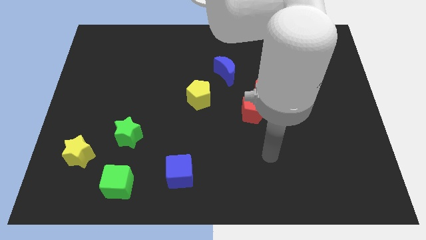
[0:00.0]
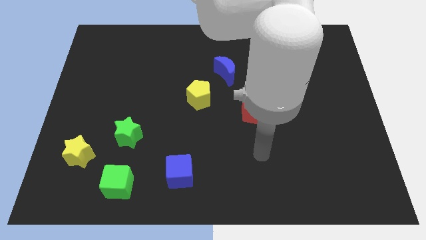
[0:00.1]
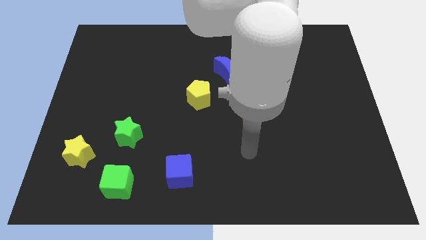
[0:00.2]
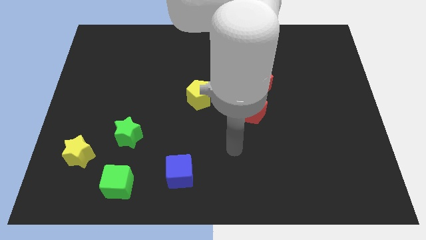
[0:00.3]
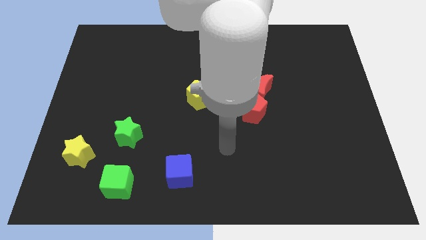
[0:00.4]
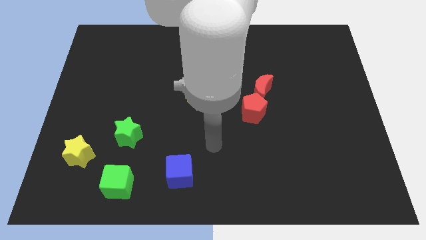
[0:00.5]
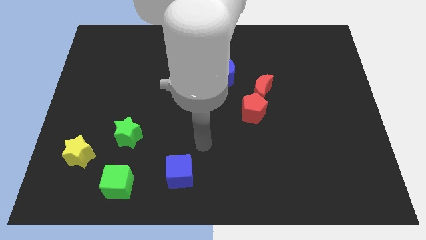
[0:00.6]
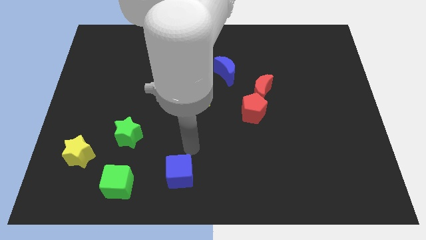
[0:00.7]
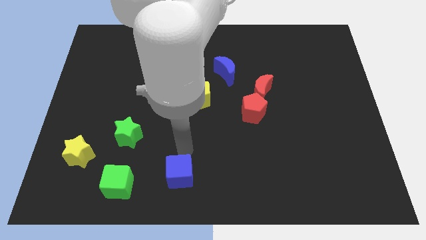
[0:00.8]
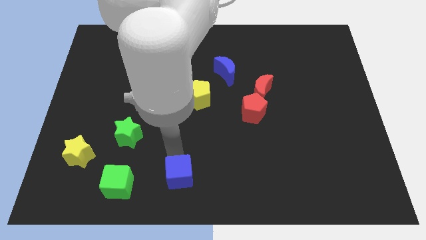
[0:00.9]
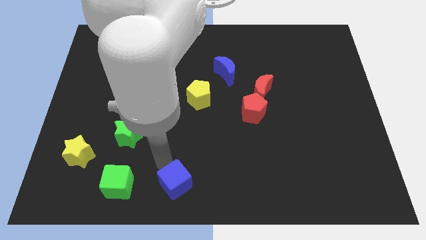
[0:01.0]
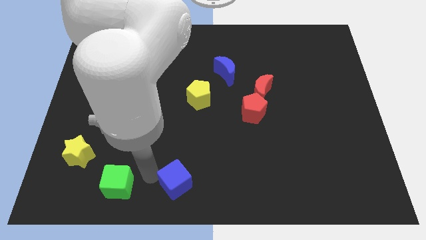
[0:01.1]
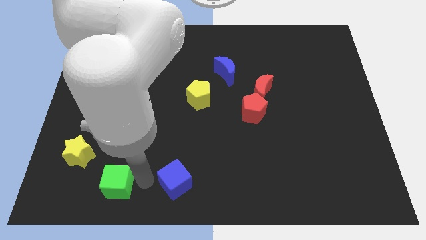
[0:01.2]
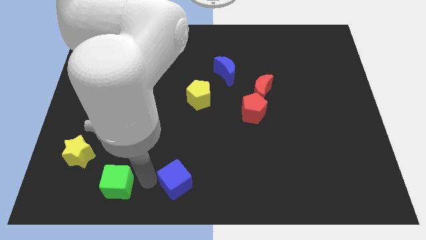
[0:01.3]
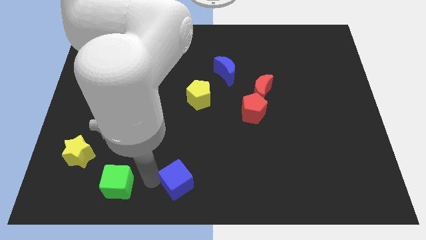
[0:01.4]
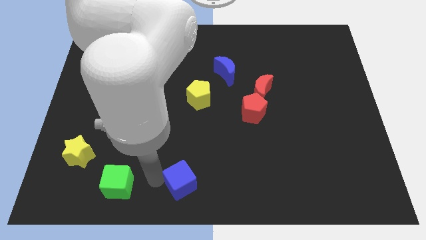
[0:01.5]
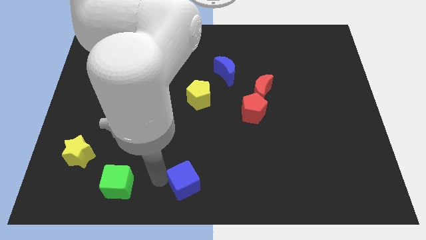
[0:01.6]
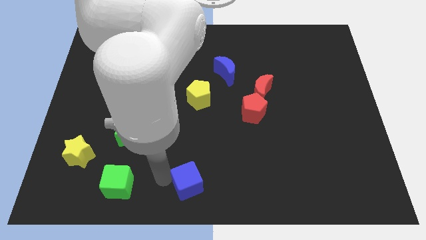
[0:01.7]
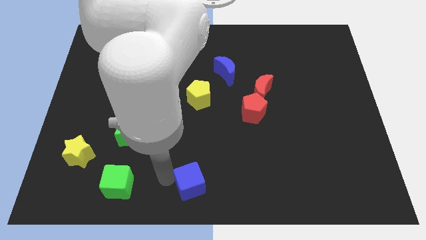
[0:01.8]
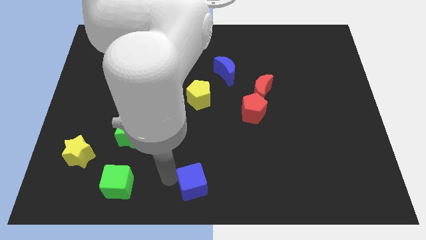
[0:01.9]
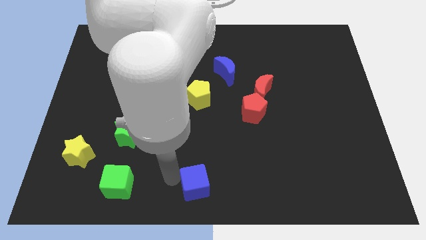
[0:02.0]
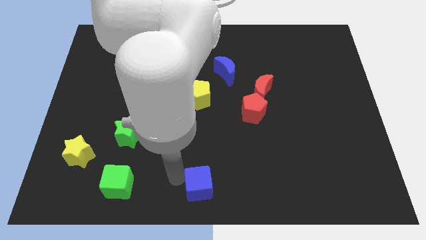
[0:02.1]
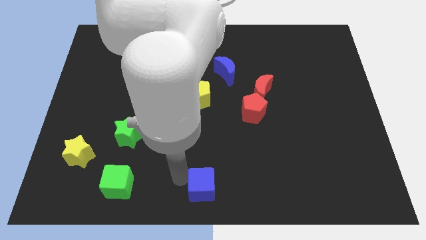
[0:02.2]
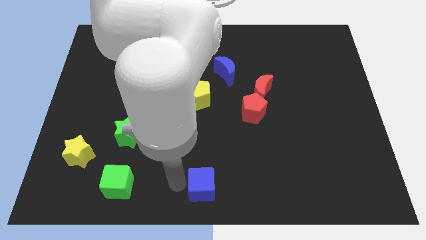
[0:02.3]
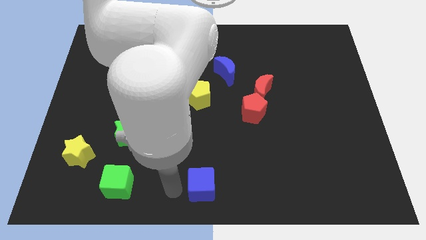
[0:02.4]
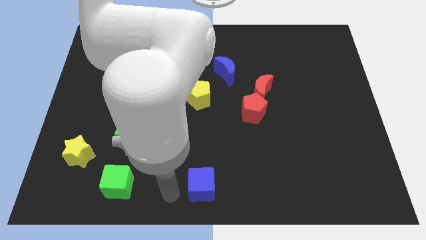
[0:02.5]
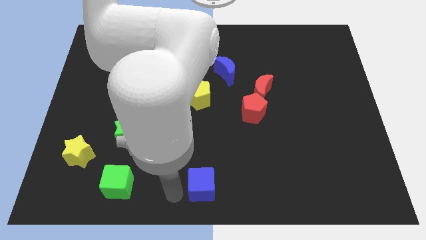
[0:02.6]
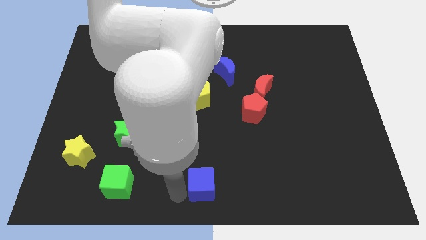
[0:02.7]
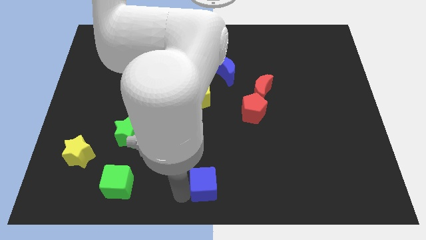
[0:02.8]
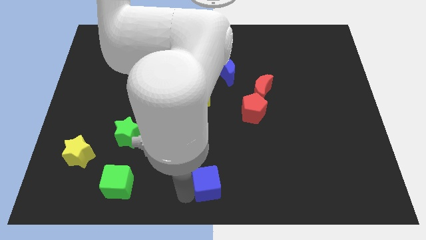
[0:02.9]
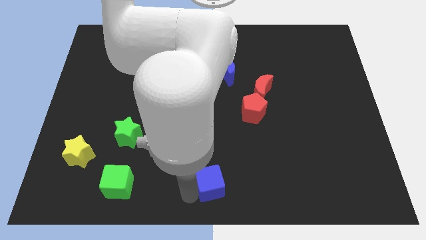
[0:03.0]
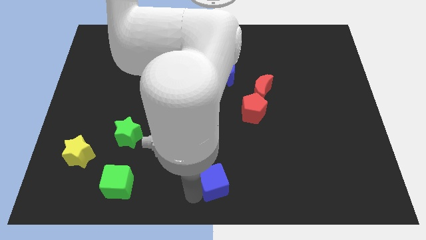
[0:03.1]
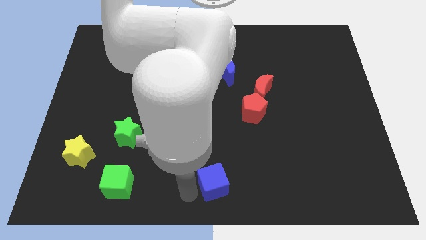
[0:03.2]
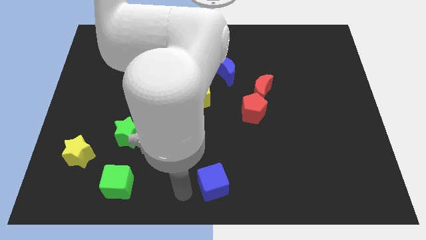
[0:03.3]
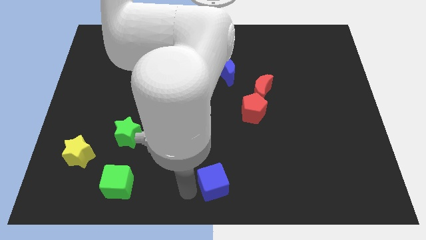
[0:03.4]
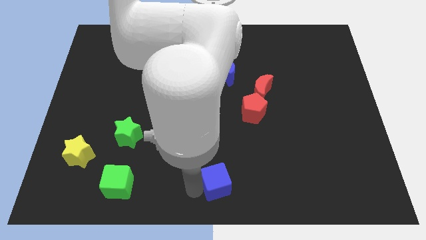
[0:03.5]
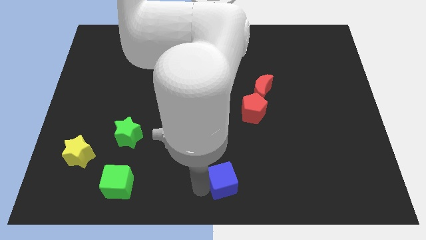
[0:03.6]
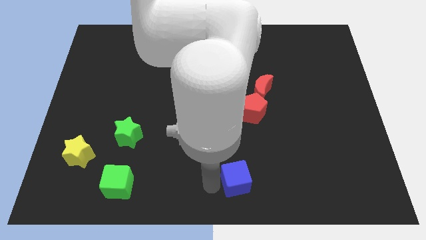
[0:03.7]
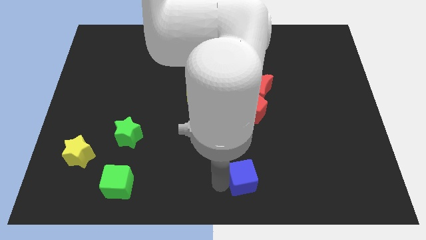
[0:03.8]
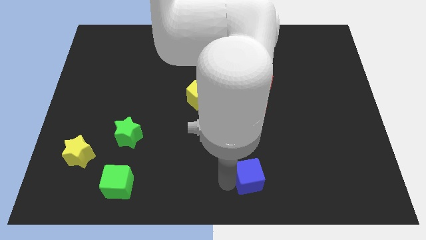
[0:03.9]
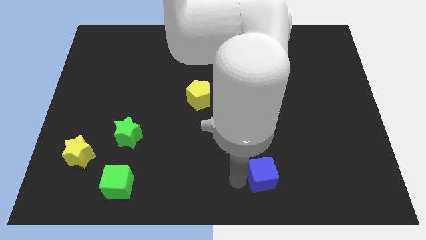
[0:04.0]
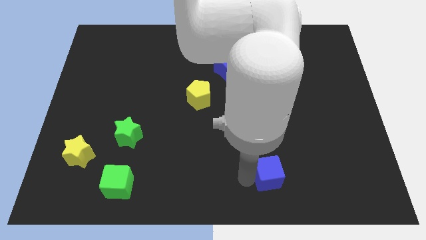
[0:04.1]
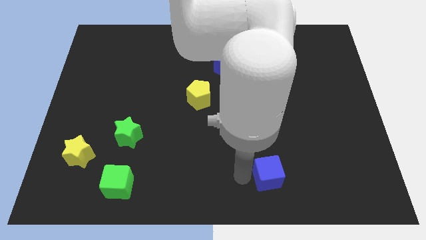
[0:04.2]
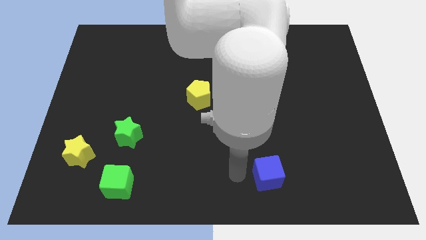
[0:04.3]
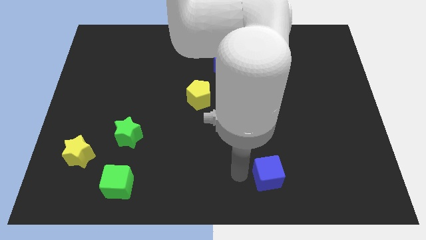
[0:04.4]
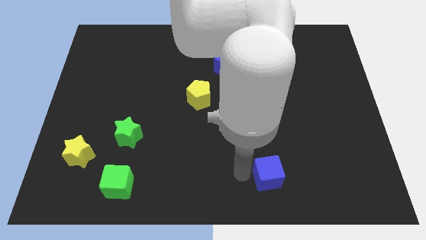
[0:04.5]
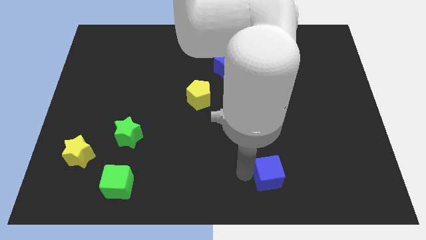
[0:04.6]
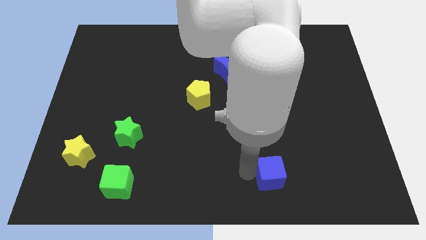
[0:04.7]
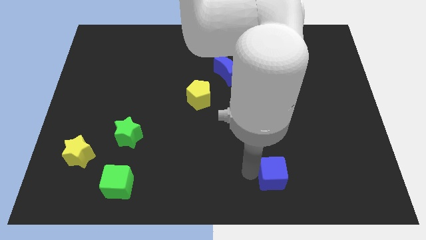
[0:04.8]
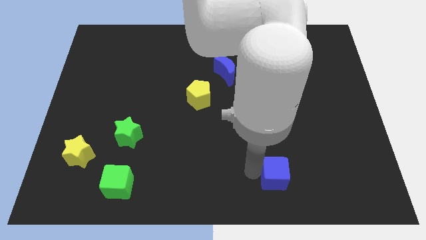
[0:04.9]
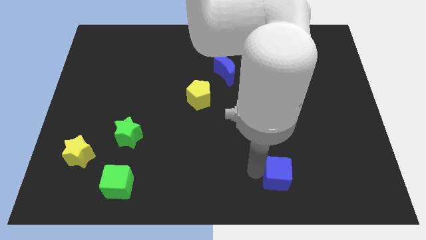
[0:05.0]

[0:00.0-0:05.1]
slide the blue cube right

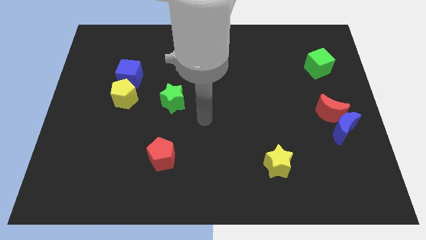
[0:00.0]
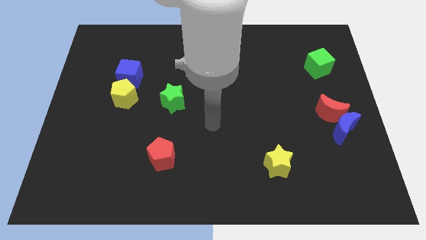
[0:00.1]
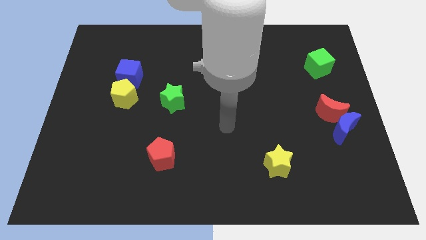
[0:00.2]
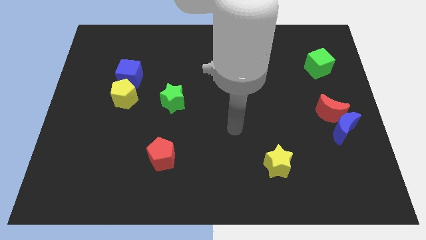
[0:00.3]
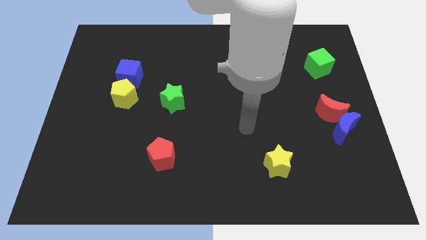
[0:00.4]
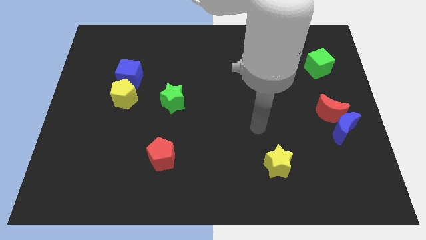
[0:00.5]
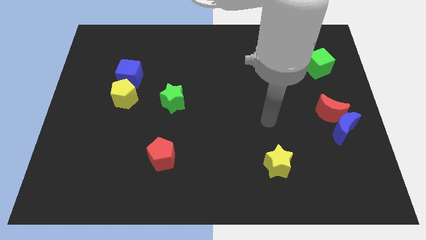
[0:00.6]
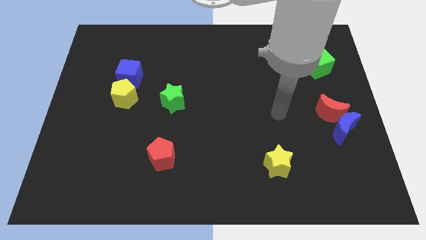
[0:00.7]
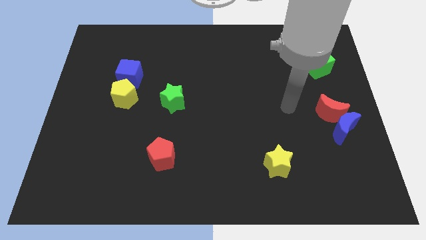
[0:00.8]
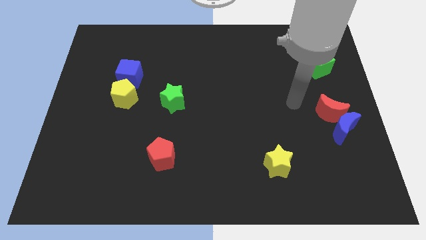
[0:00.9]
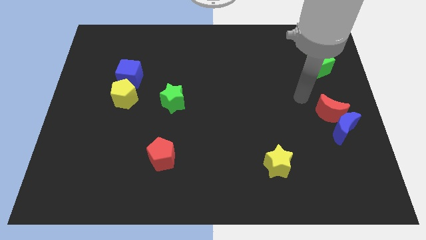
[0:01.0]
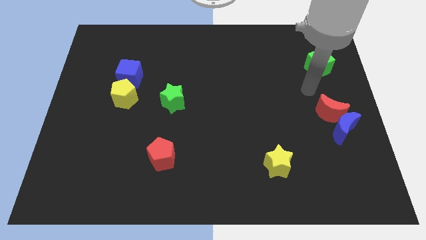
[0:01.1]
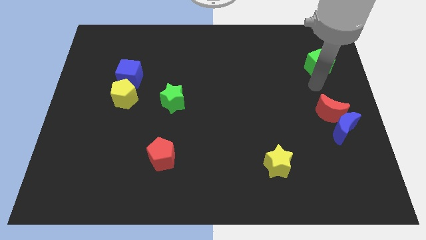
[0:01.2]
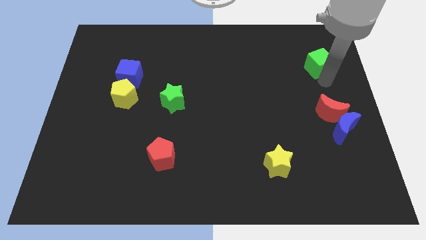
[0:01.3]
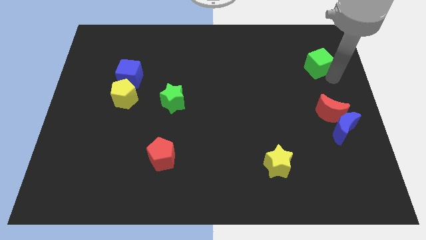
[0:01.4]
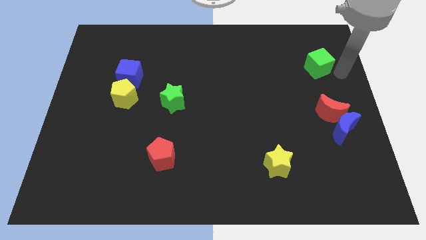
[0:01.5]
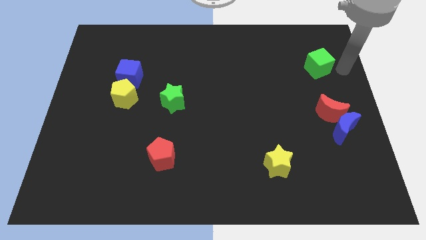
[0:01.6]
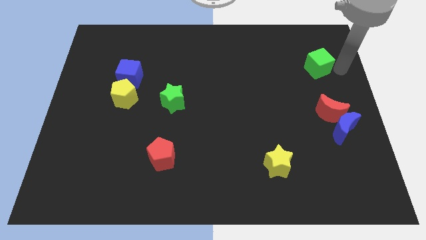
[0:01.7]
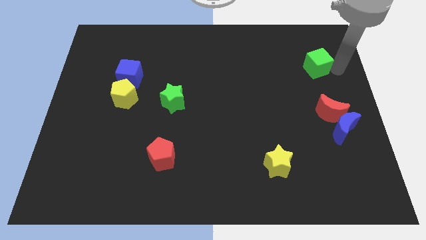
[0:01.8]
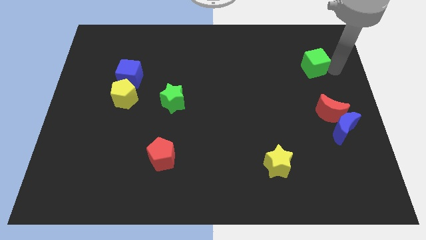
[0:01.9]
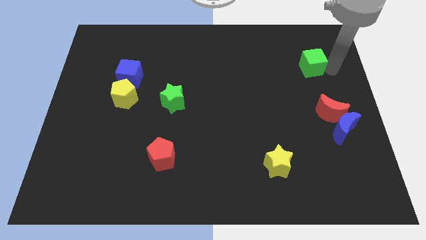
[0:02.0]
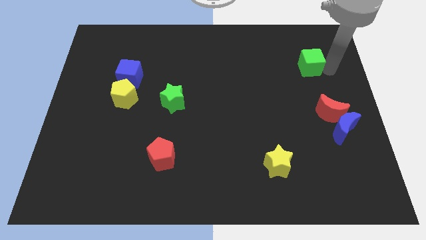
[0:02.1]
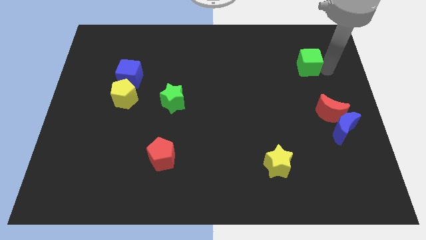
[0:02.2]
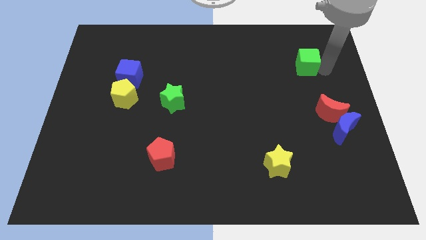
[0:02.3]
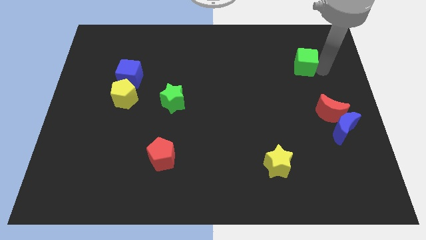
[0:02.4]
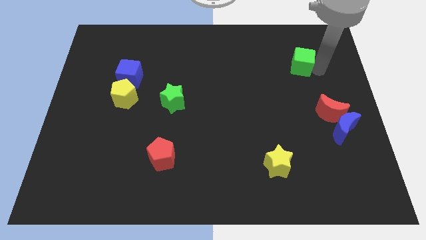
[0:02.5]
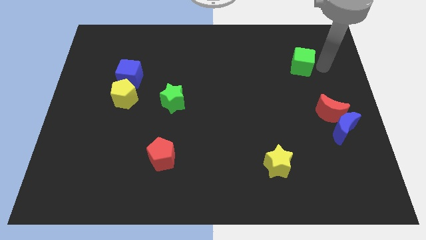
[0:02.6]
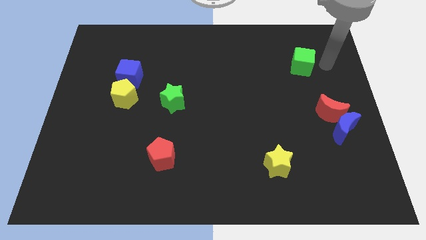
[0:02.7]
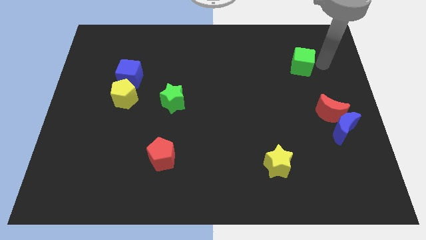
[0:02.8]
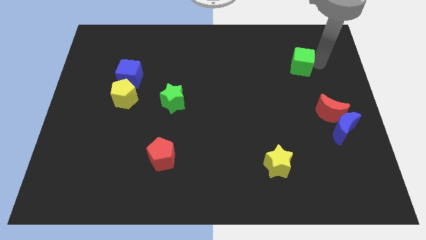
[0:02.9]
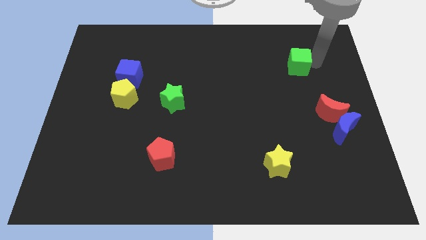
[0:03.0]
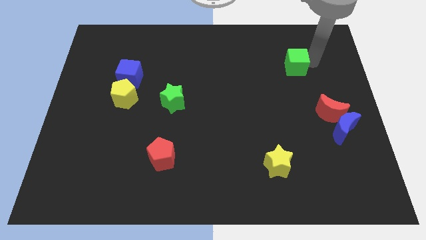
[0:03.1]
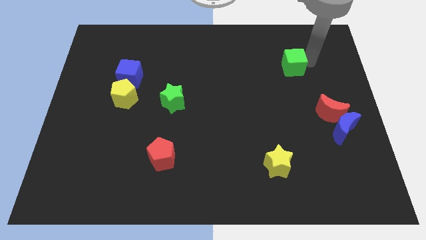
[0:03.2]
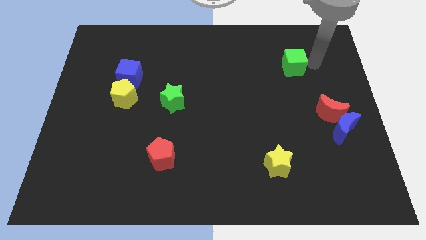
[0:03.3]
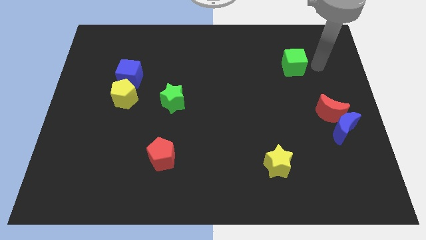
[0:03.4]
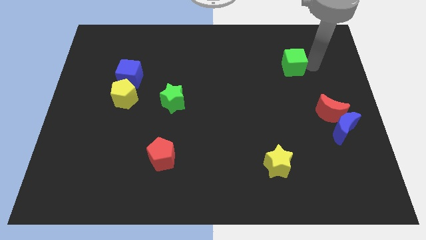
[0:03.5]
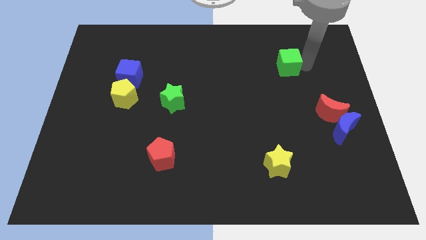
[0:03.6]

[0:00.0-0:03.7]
slightly push the green cube left
